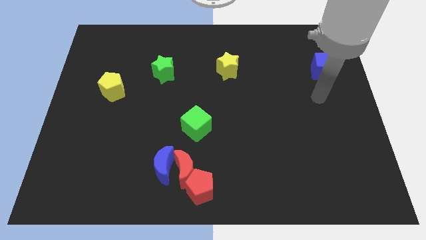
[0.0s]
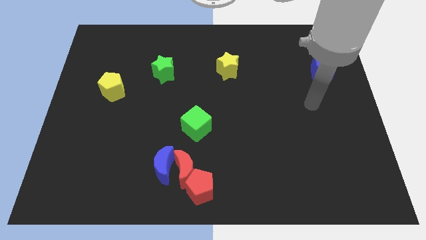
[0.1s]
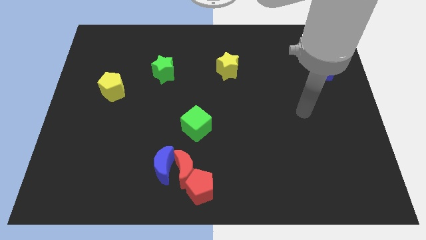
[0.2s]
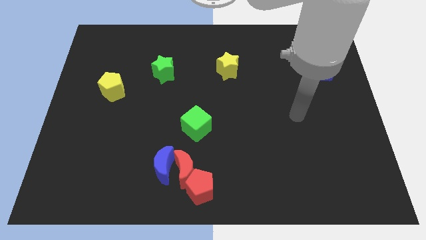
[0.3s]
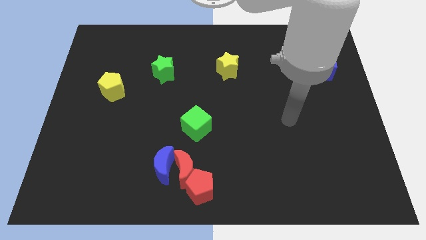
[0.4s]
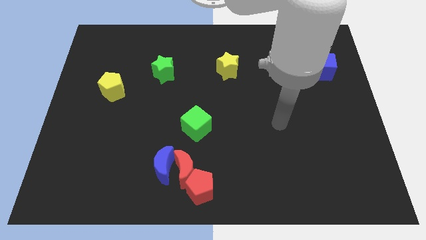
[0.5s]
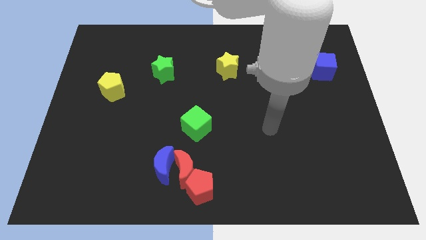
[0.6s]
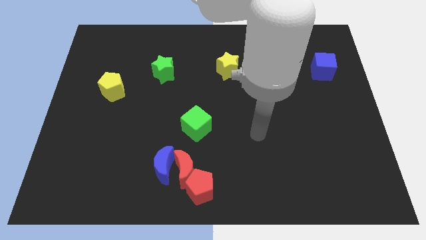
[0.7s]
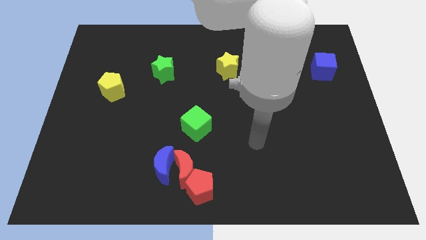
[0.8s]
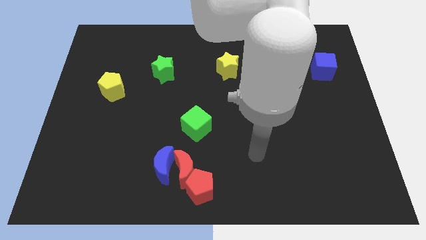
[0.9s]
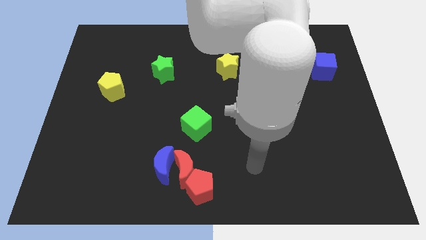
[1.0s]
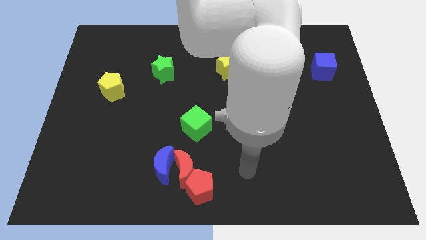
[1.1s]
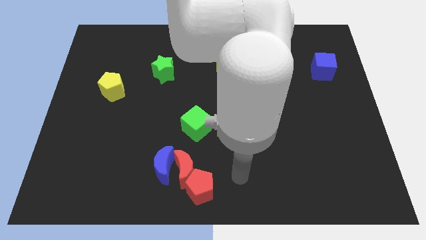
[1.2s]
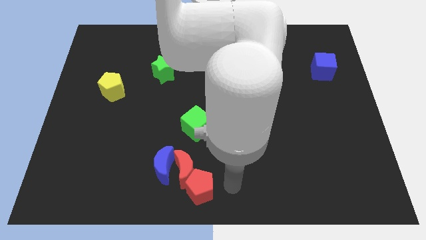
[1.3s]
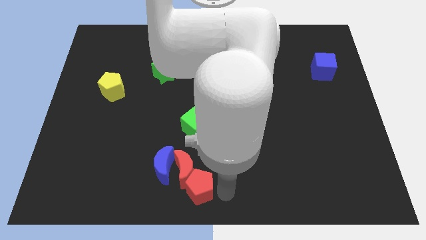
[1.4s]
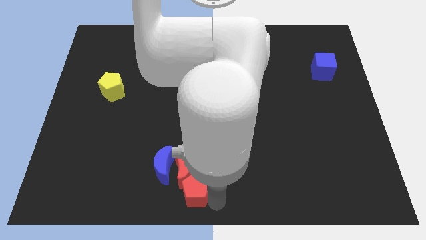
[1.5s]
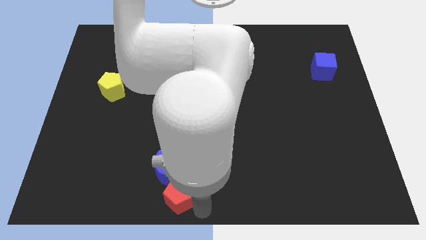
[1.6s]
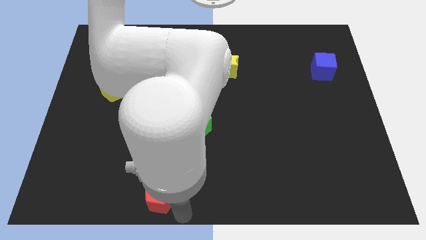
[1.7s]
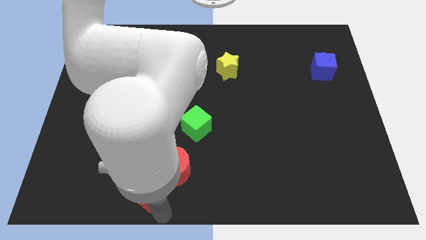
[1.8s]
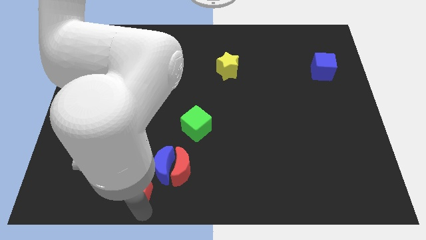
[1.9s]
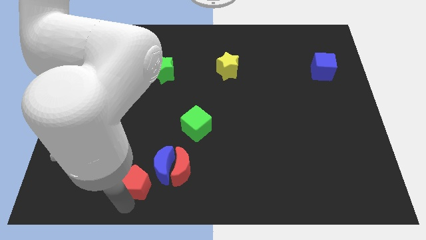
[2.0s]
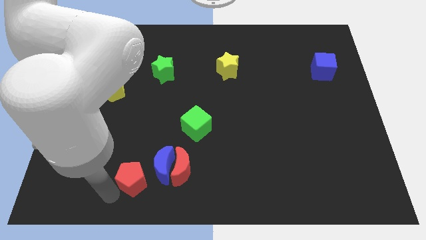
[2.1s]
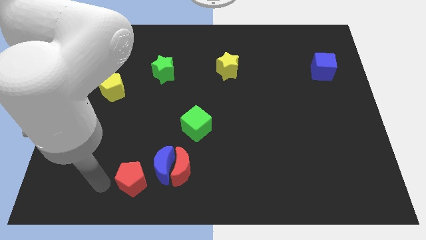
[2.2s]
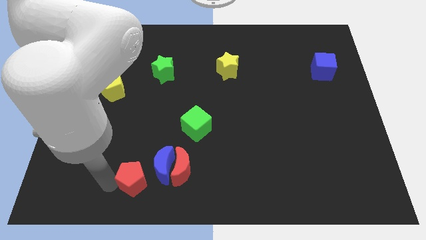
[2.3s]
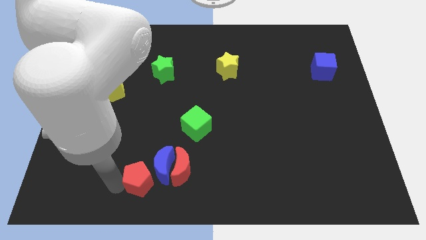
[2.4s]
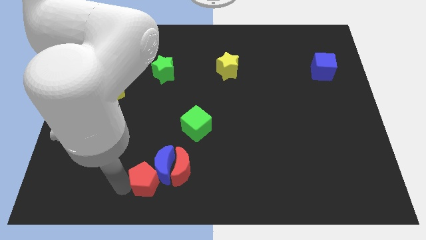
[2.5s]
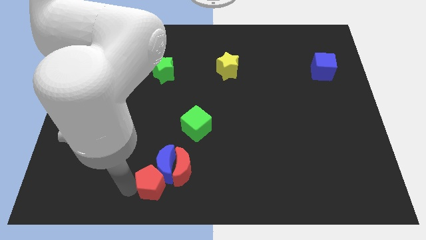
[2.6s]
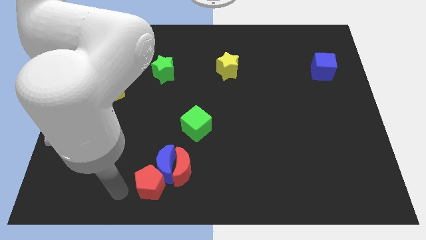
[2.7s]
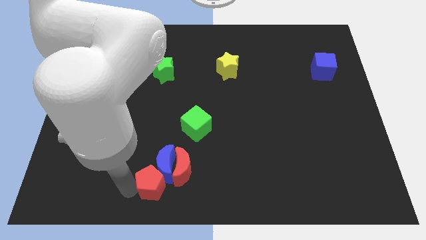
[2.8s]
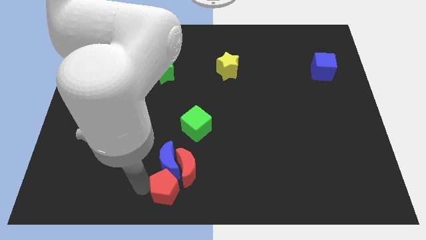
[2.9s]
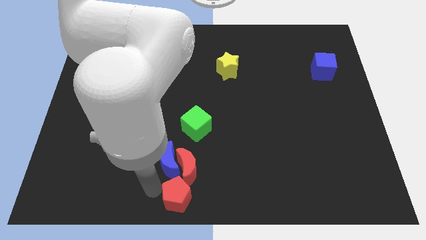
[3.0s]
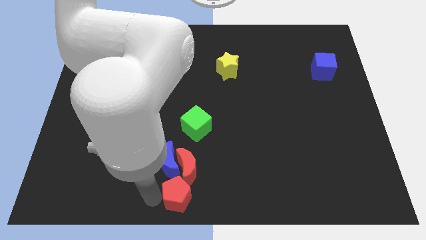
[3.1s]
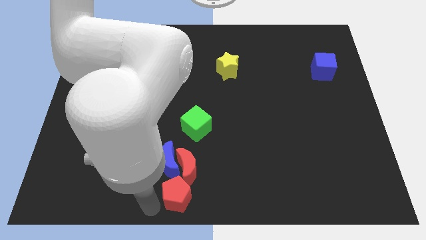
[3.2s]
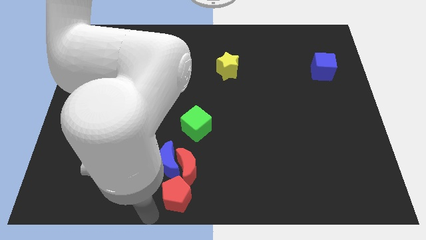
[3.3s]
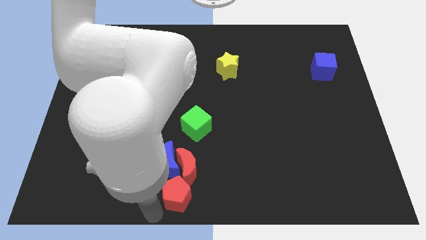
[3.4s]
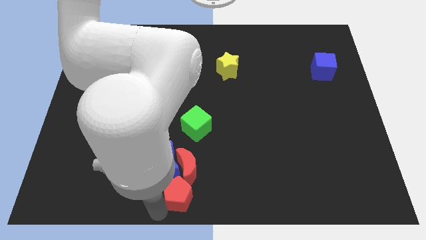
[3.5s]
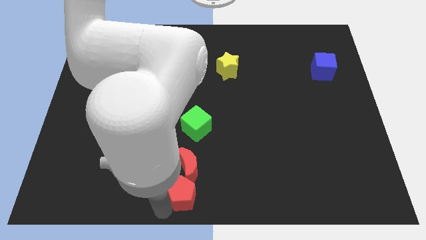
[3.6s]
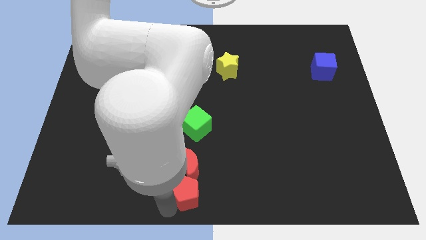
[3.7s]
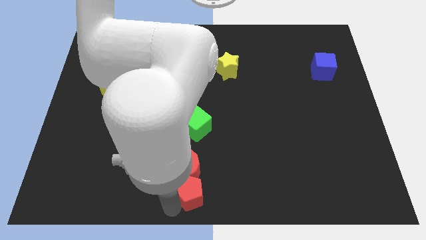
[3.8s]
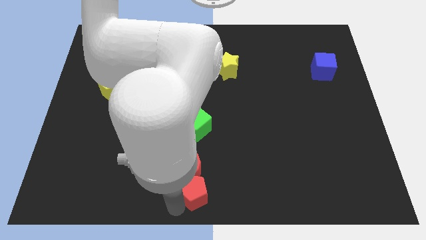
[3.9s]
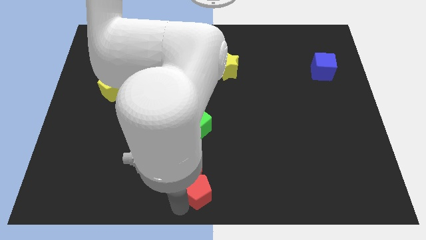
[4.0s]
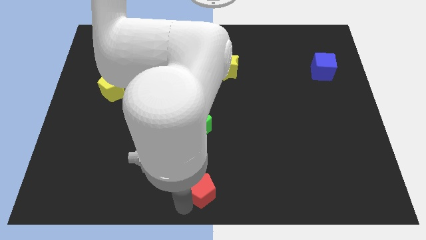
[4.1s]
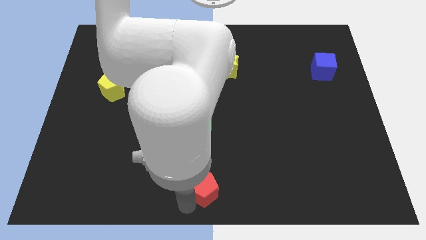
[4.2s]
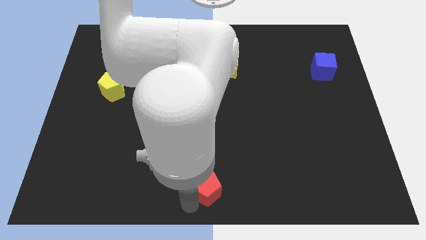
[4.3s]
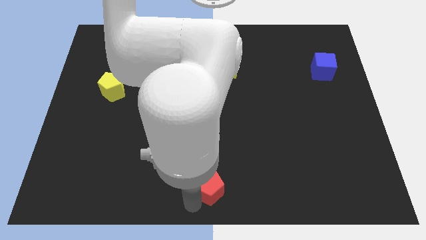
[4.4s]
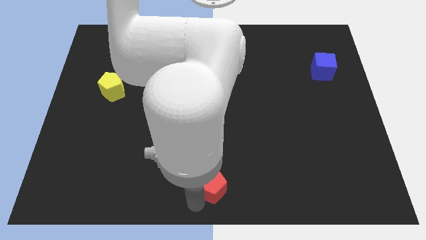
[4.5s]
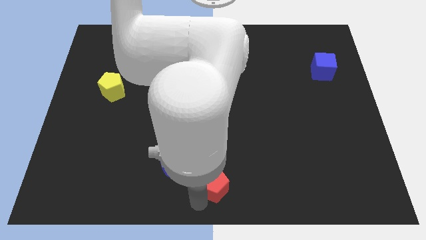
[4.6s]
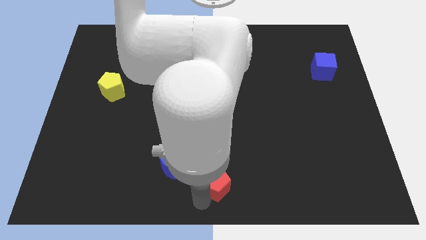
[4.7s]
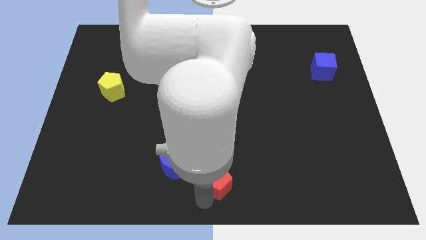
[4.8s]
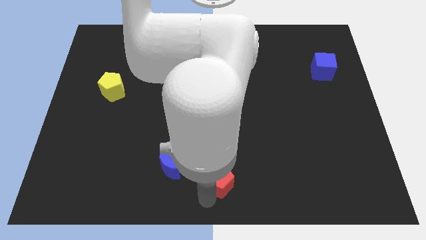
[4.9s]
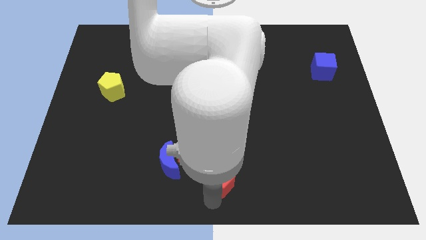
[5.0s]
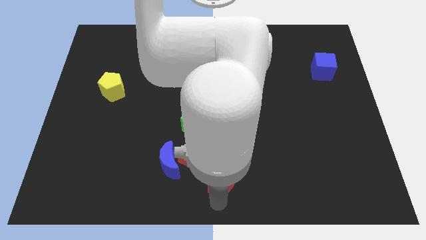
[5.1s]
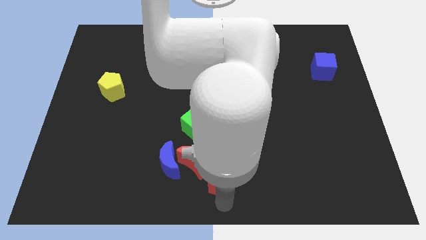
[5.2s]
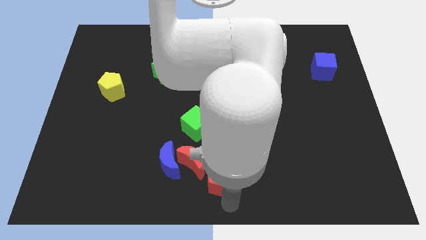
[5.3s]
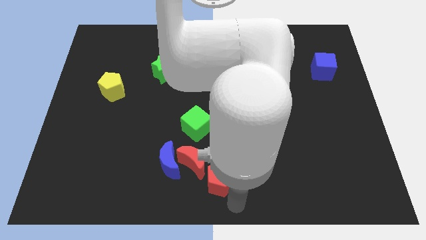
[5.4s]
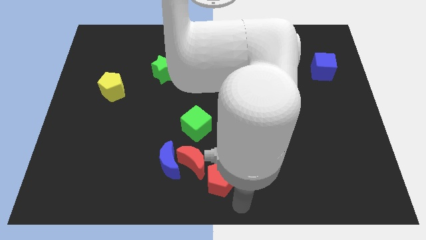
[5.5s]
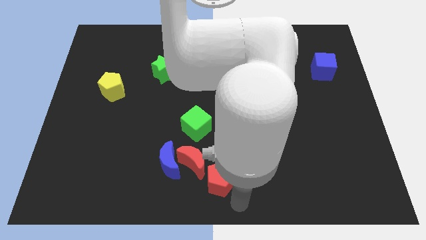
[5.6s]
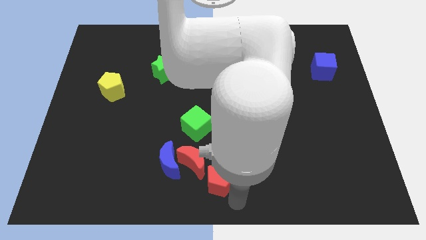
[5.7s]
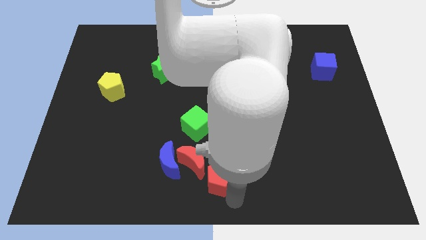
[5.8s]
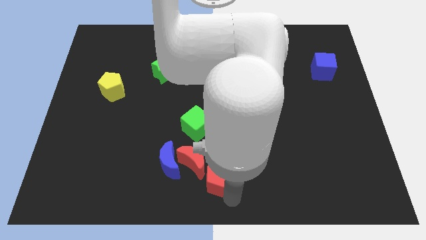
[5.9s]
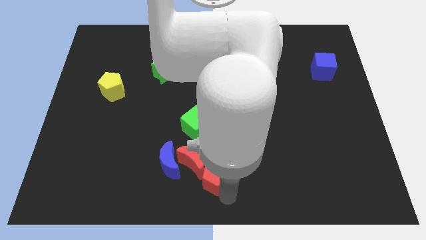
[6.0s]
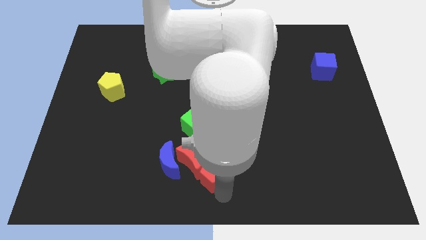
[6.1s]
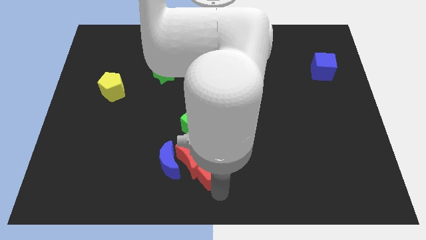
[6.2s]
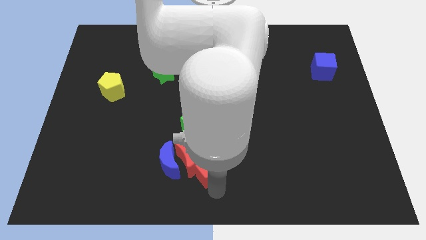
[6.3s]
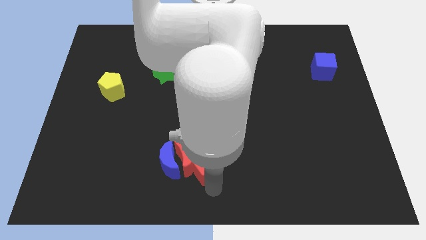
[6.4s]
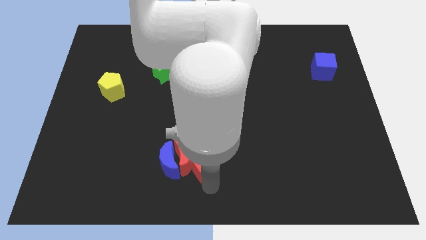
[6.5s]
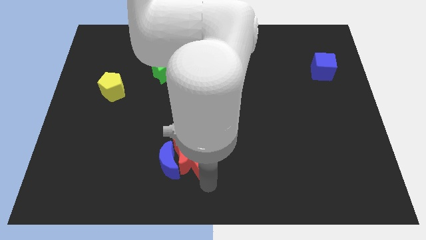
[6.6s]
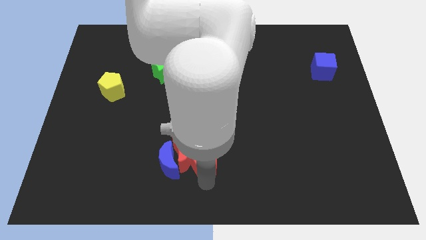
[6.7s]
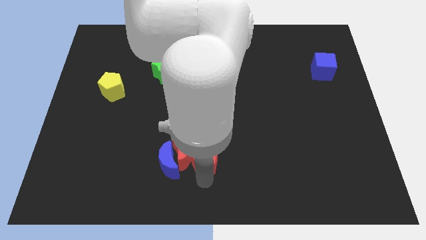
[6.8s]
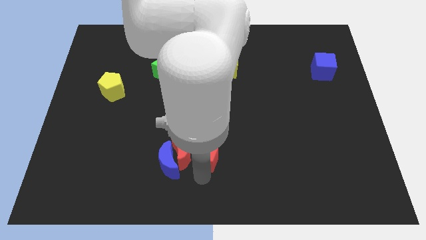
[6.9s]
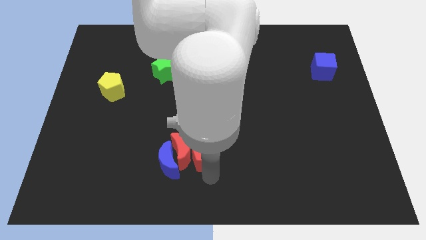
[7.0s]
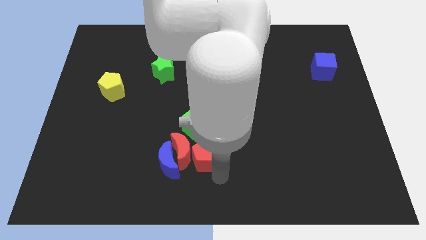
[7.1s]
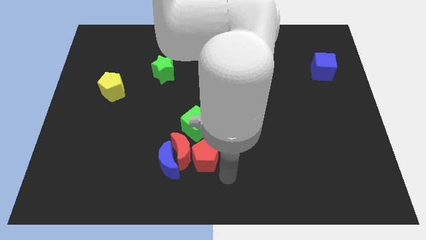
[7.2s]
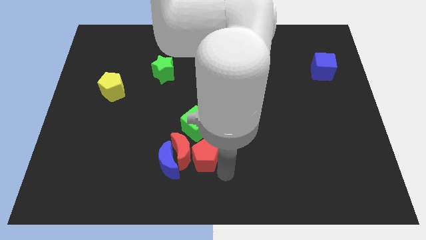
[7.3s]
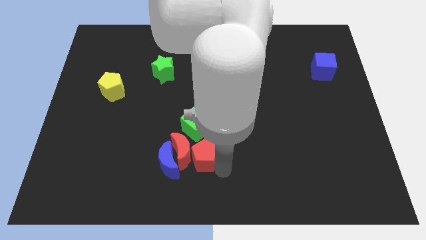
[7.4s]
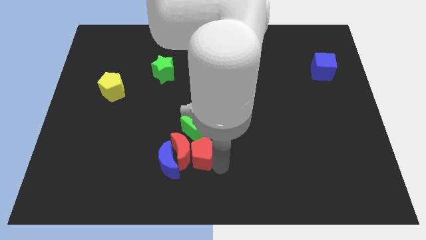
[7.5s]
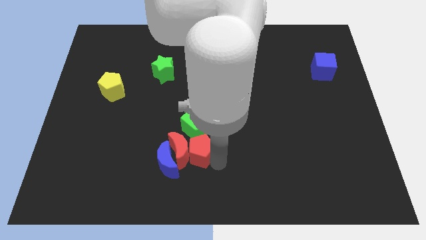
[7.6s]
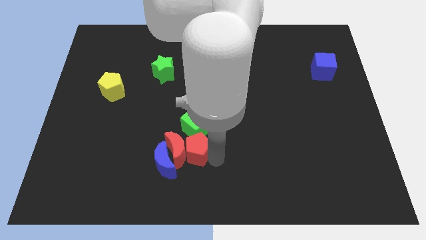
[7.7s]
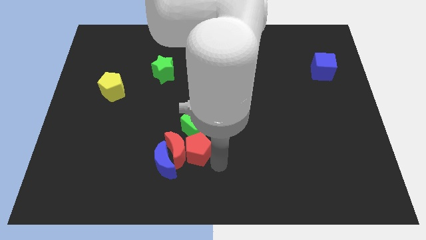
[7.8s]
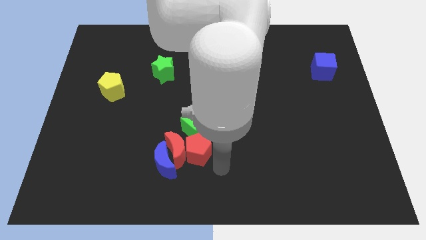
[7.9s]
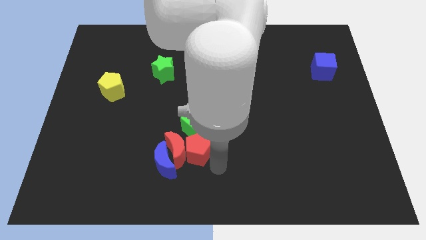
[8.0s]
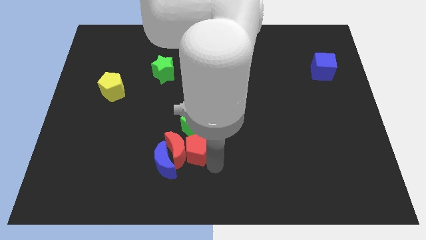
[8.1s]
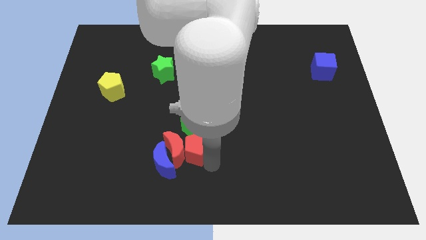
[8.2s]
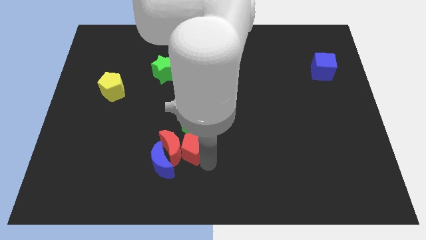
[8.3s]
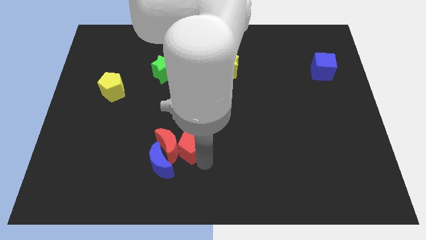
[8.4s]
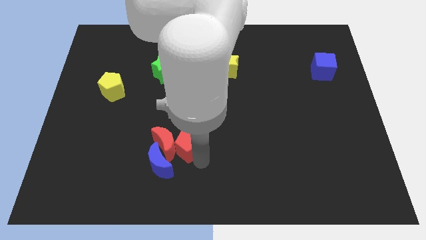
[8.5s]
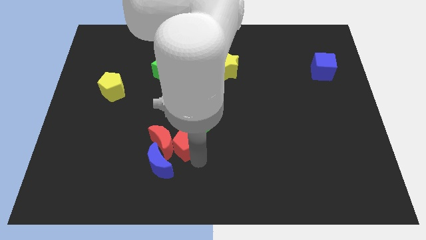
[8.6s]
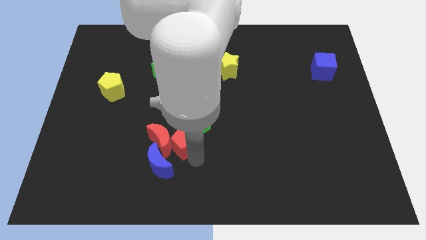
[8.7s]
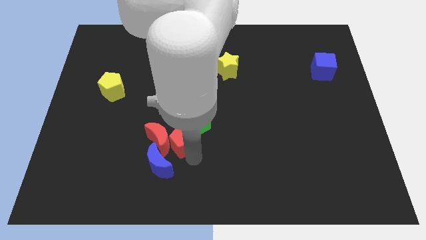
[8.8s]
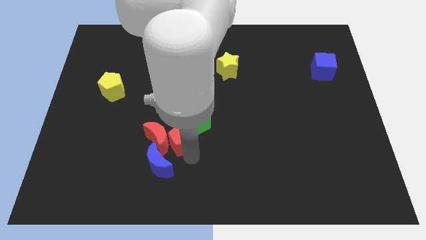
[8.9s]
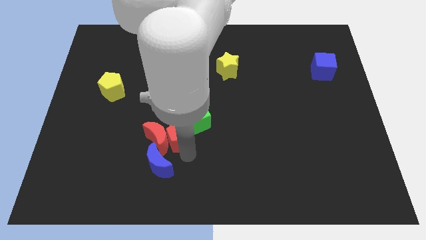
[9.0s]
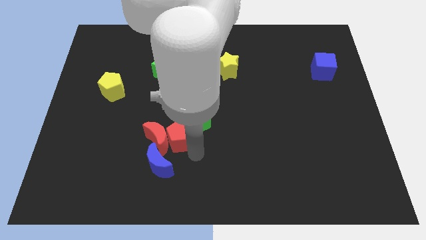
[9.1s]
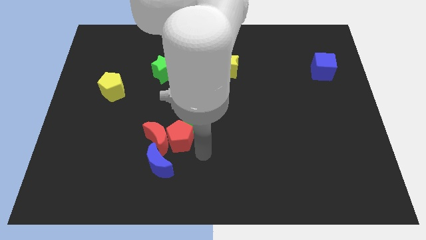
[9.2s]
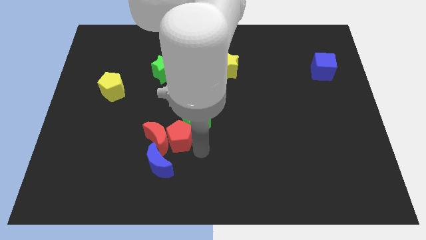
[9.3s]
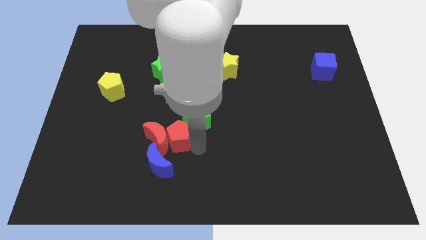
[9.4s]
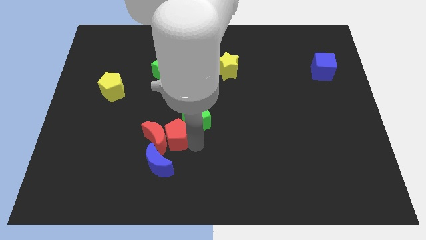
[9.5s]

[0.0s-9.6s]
move the red pentagon to the left side of the green cube
